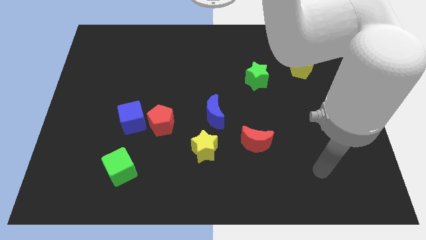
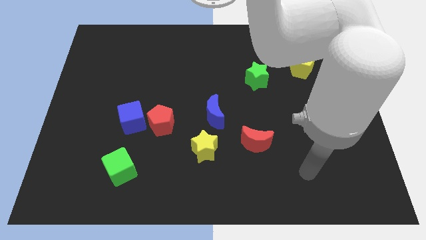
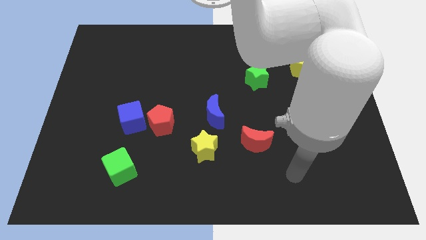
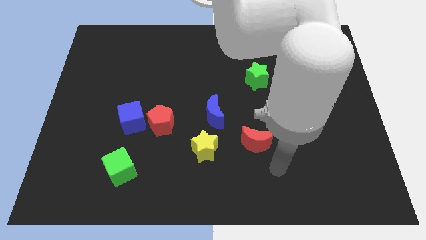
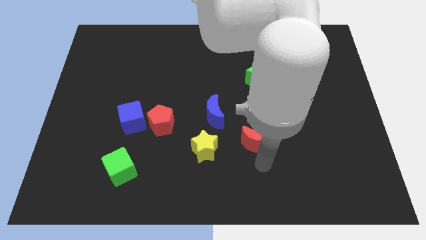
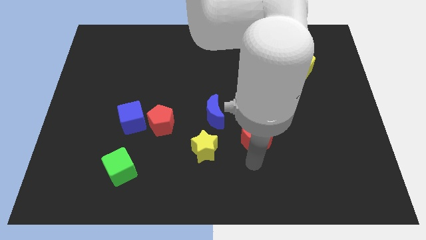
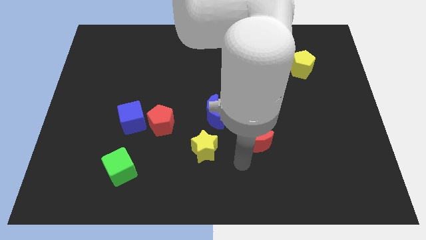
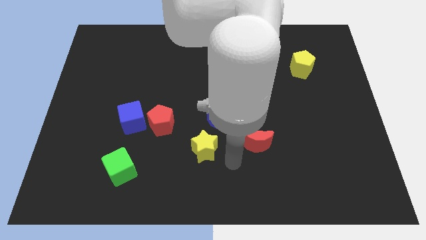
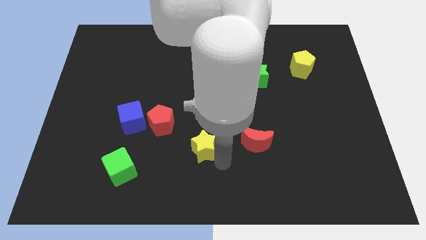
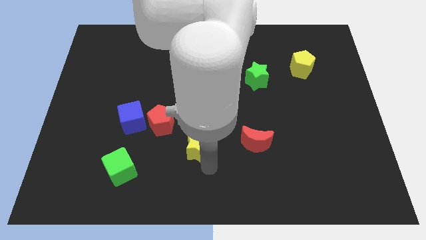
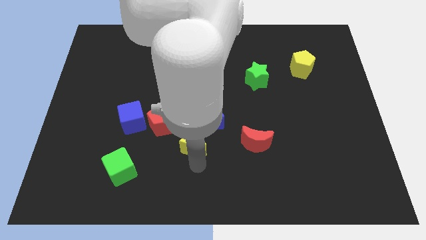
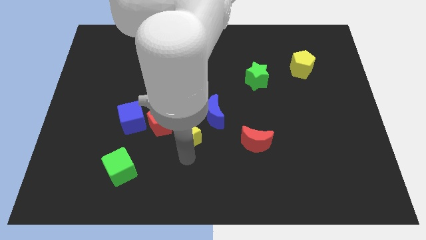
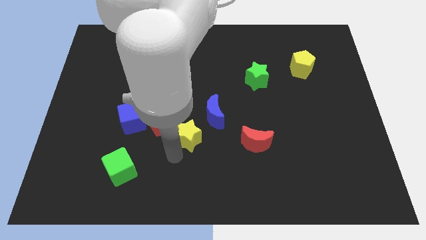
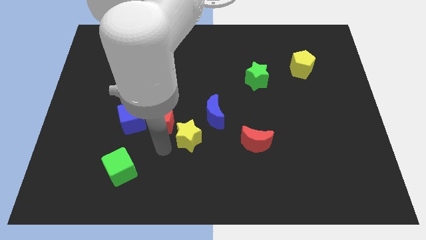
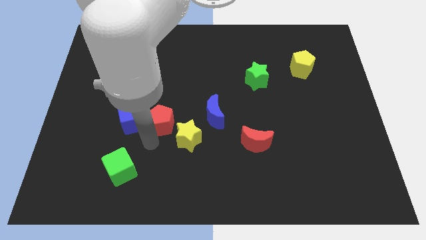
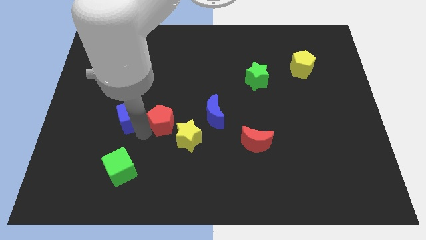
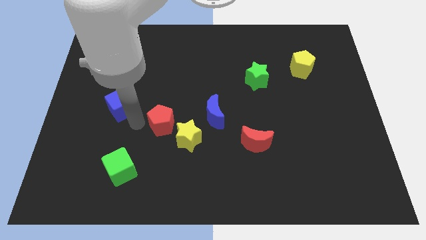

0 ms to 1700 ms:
pull the red pentagon apart from the blue cube

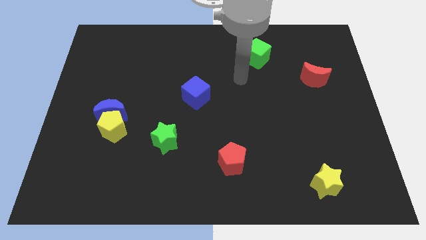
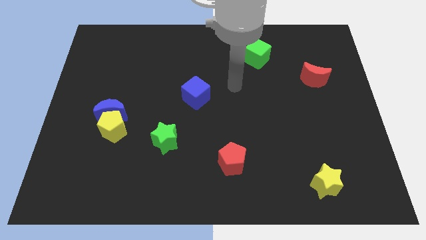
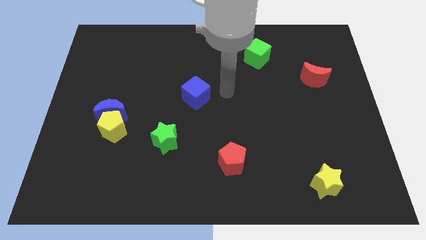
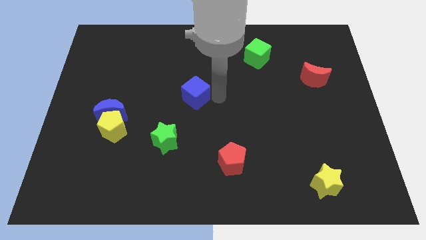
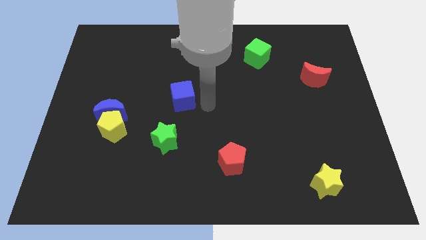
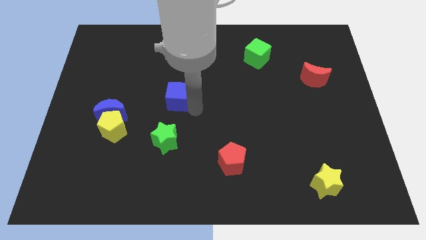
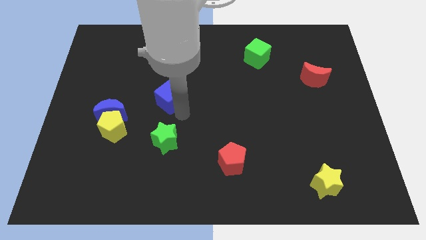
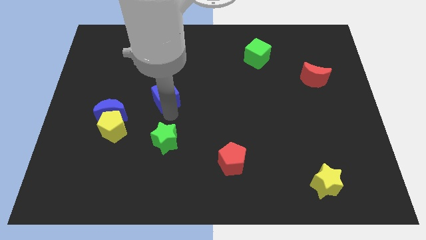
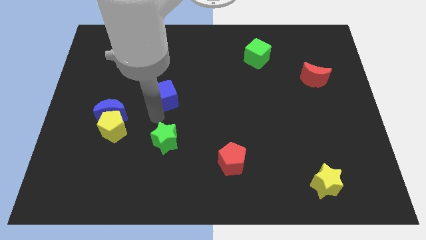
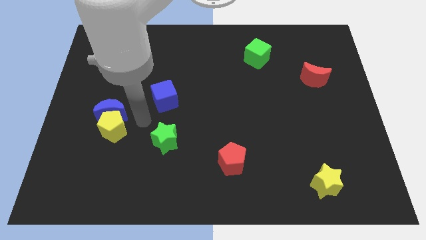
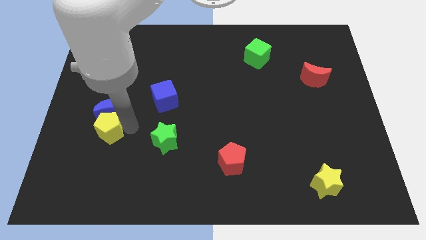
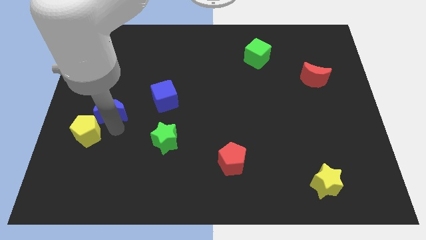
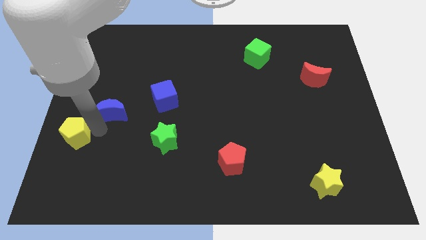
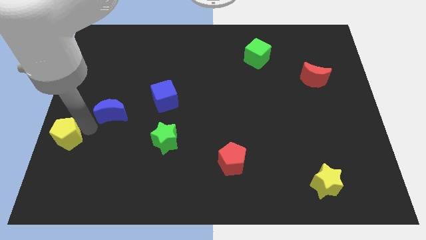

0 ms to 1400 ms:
pull the blue moon apart from the yellow pentagon

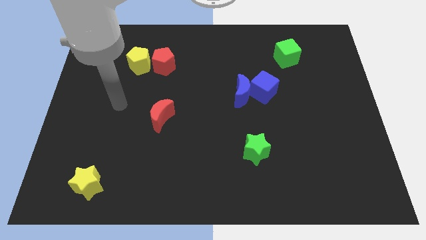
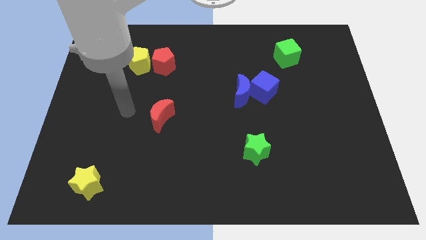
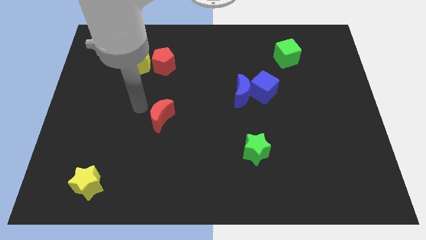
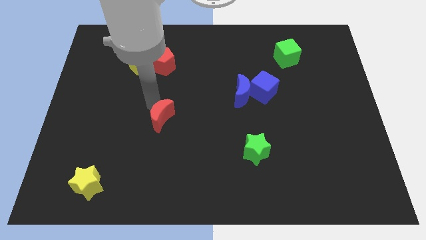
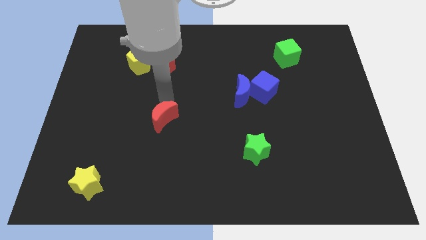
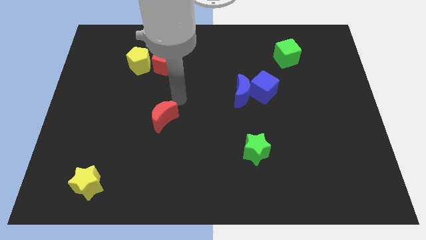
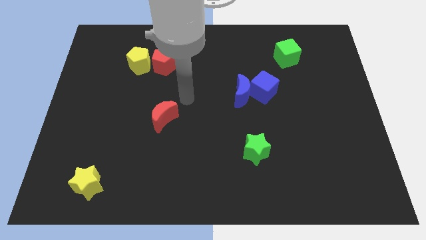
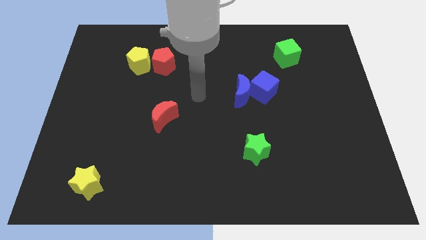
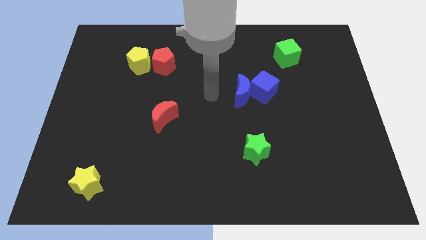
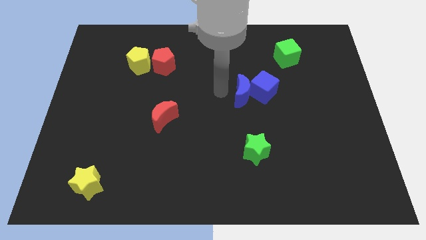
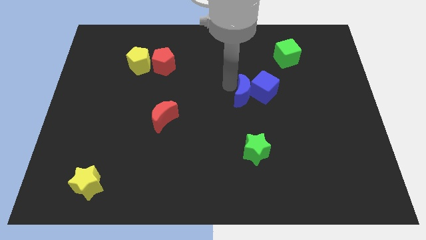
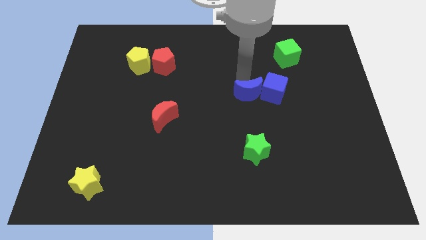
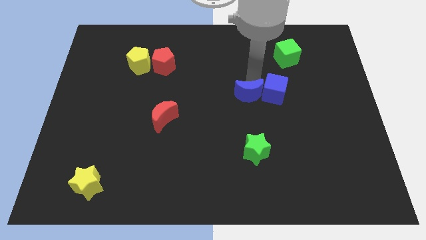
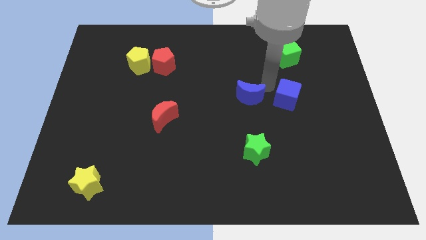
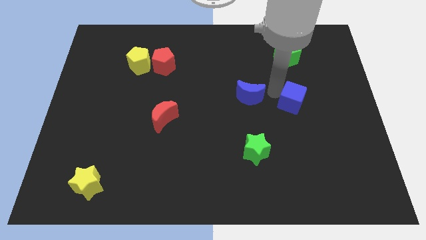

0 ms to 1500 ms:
separate the blue moon from the blue cube

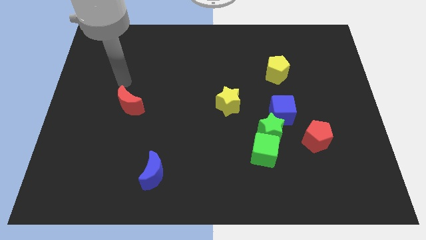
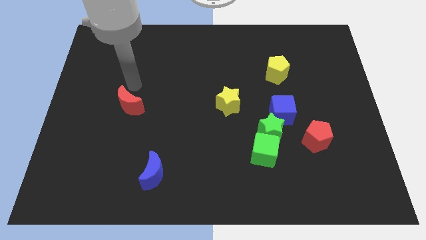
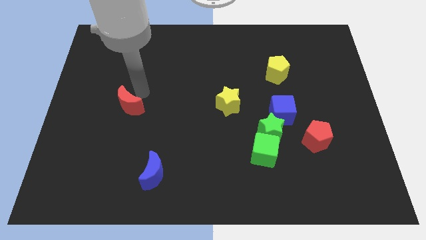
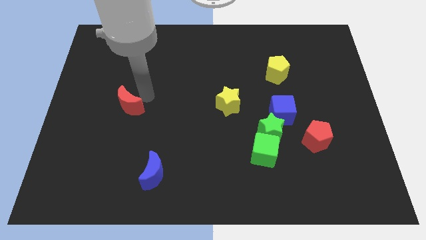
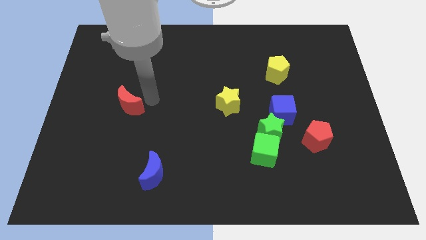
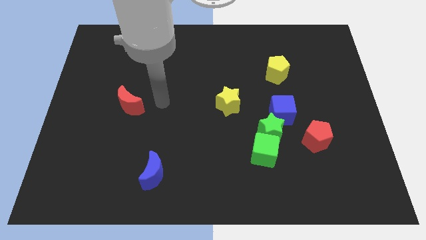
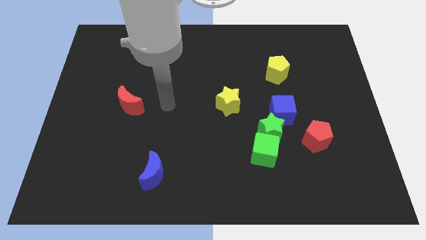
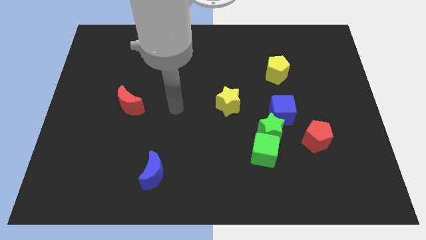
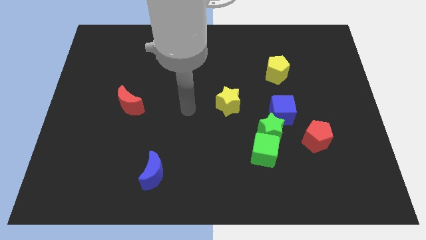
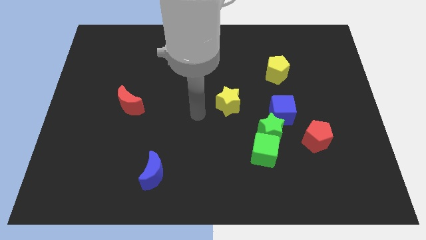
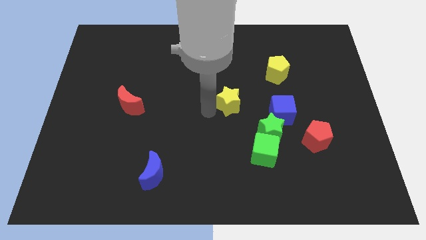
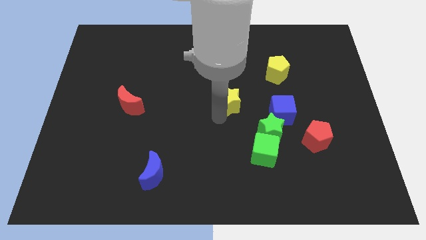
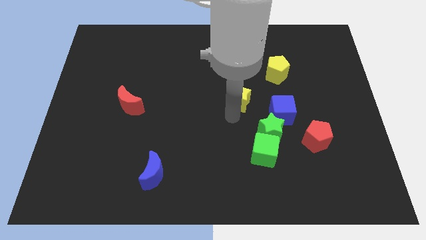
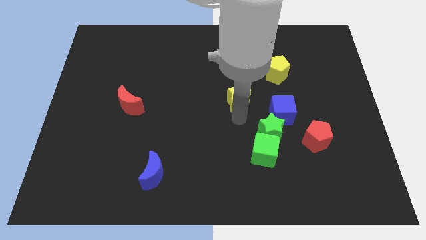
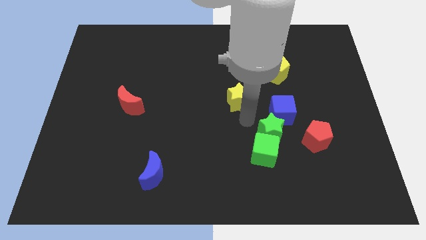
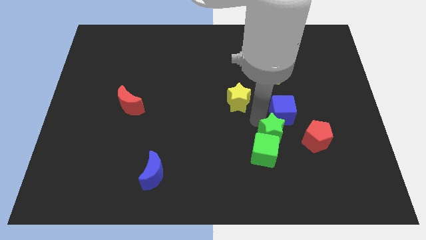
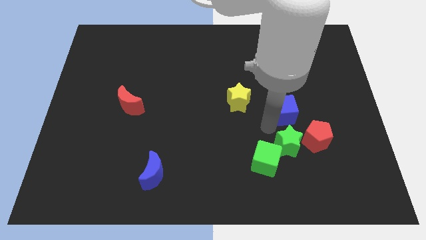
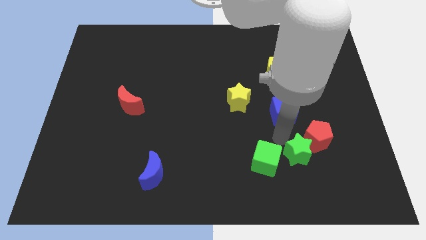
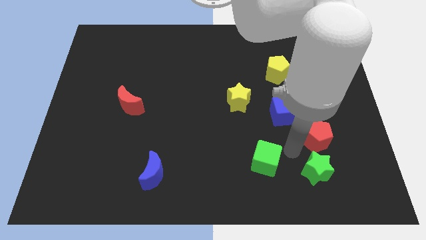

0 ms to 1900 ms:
move the green cube away from the green star

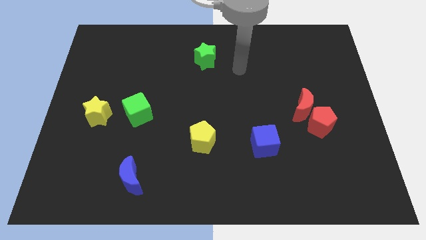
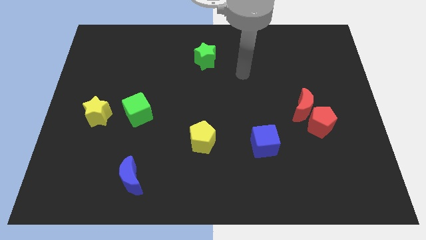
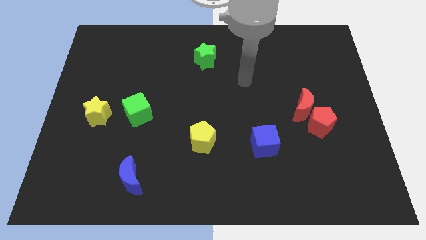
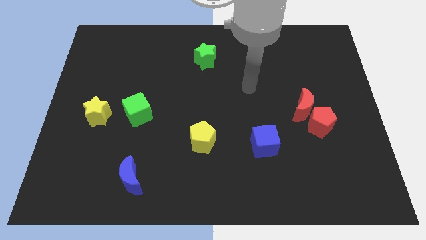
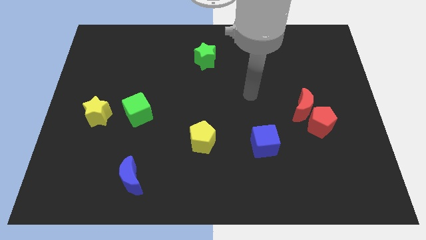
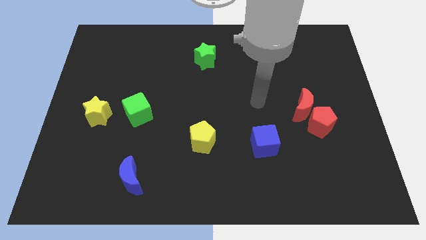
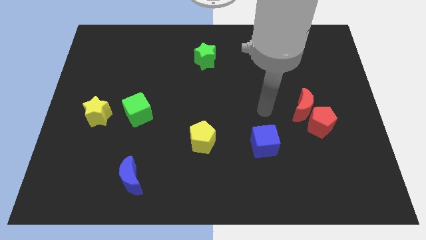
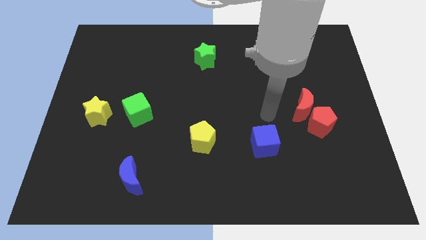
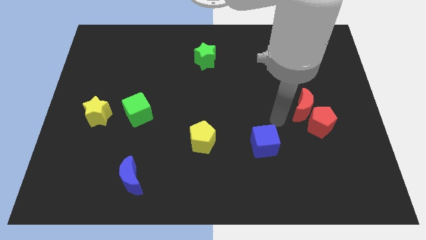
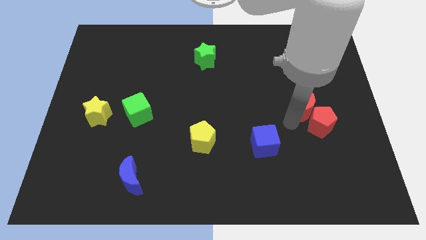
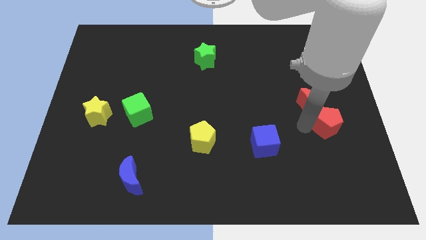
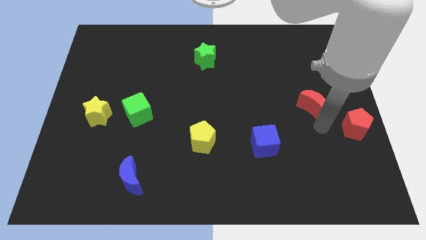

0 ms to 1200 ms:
pull the red moon apart from the red pentagon

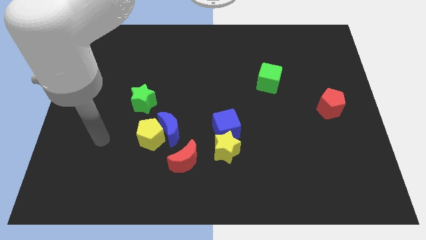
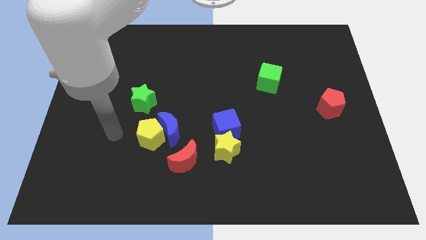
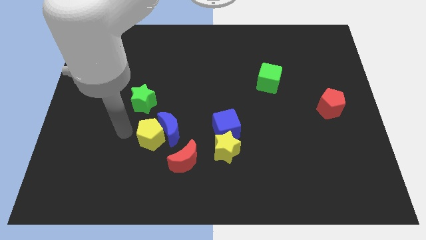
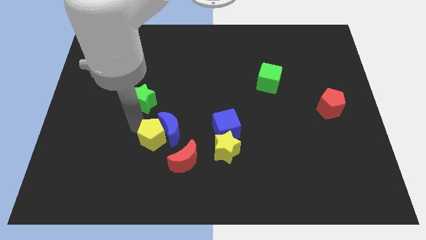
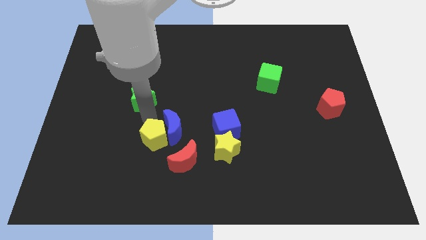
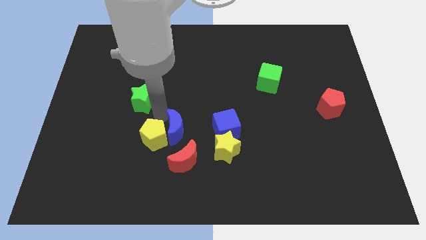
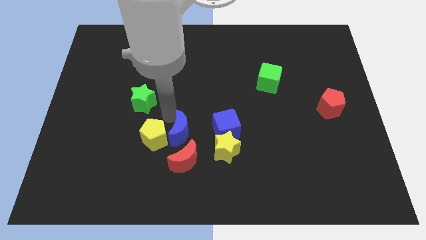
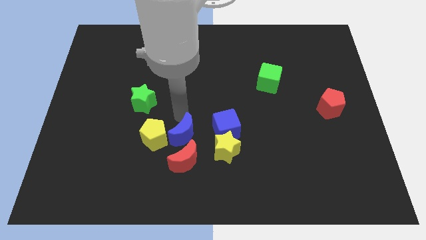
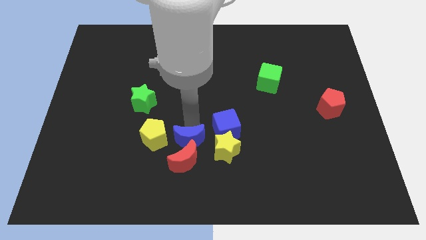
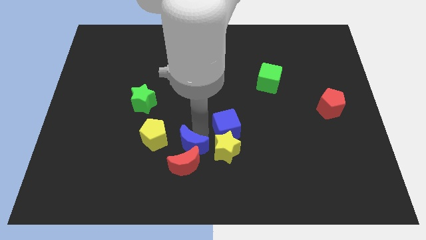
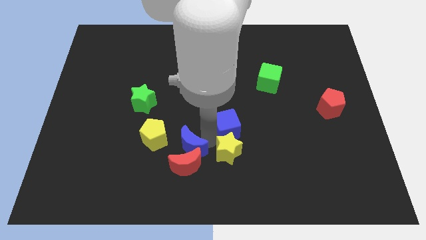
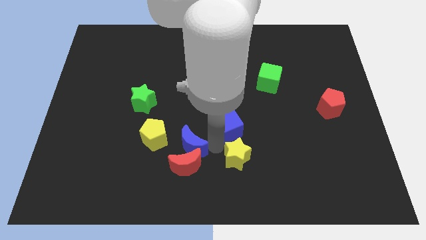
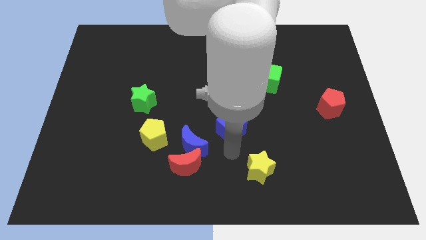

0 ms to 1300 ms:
separate the blue cube from the yellow star

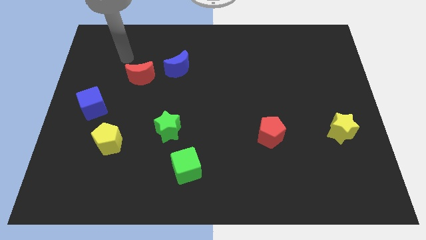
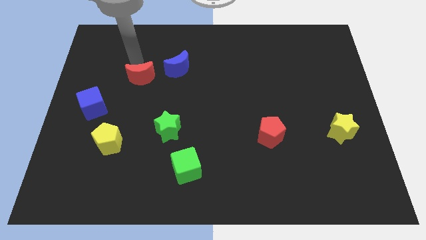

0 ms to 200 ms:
pull the red moon apart from the blue moon
